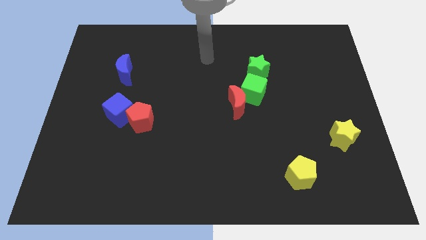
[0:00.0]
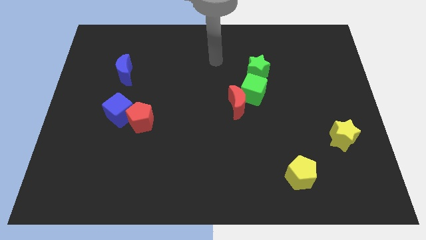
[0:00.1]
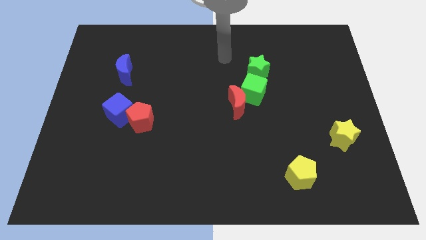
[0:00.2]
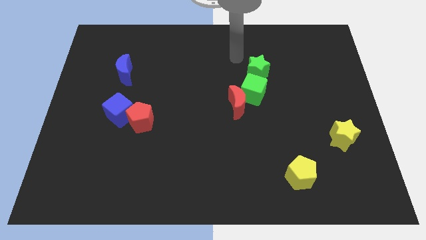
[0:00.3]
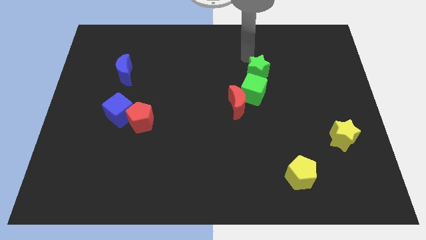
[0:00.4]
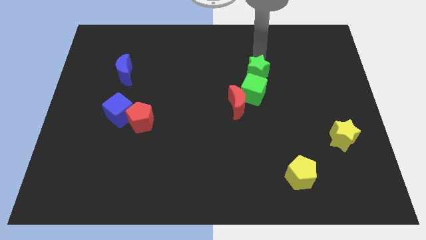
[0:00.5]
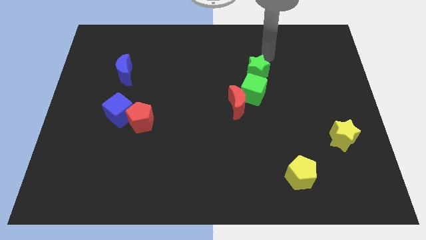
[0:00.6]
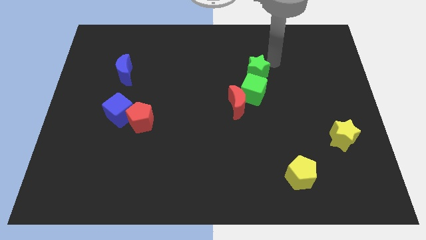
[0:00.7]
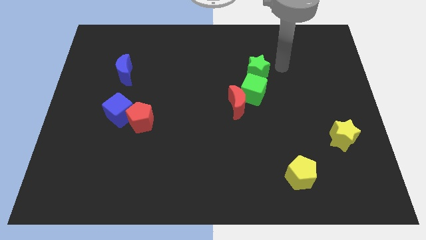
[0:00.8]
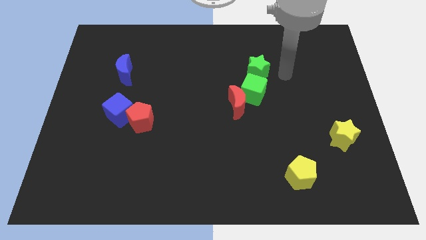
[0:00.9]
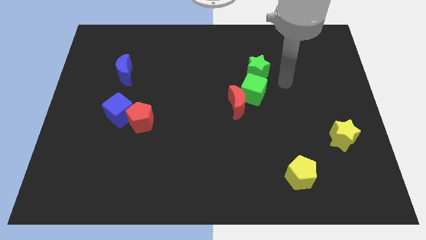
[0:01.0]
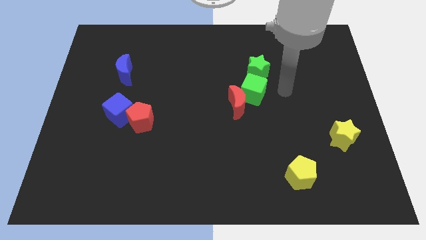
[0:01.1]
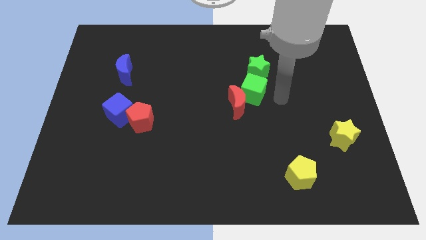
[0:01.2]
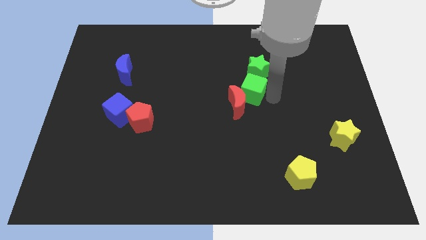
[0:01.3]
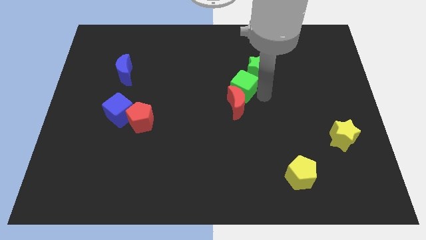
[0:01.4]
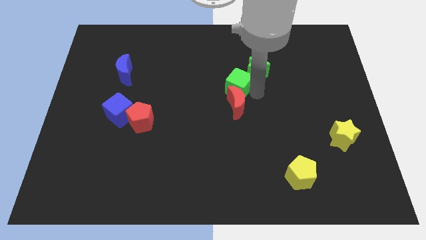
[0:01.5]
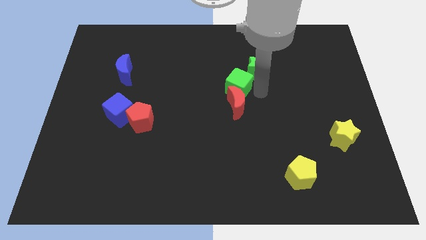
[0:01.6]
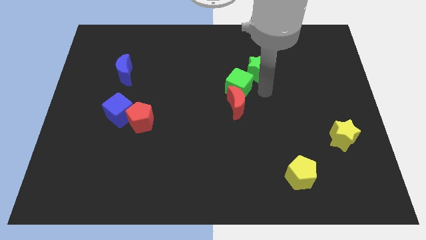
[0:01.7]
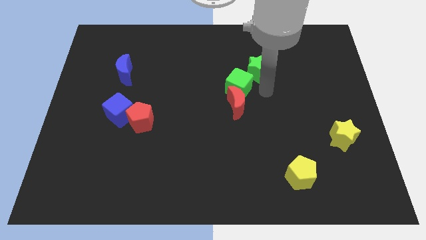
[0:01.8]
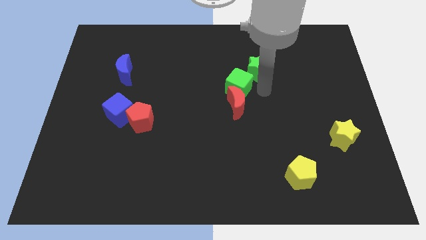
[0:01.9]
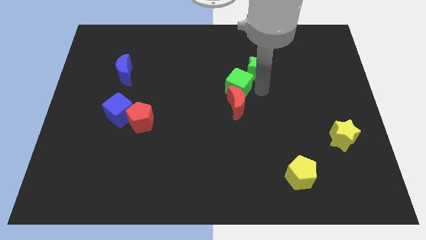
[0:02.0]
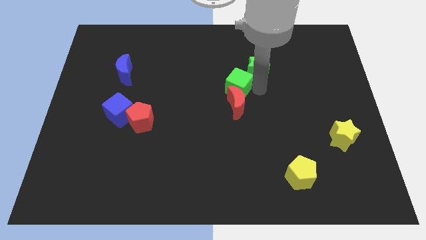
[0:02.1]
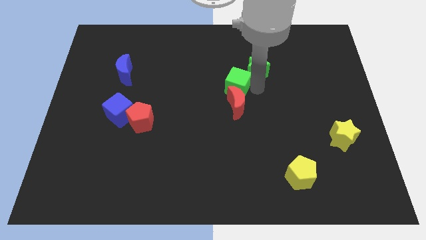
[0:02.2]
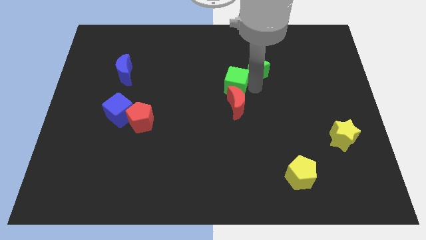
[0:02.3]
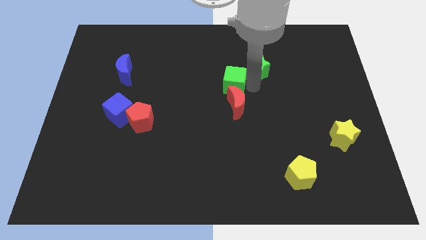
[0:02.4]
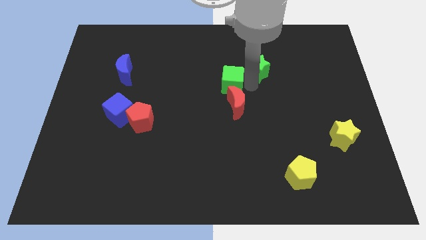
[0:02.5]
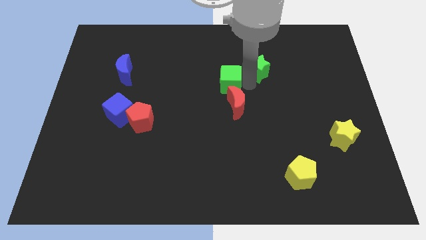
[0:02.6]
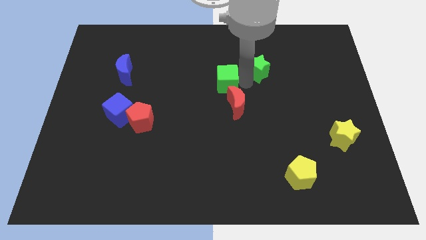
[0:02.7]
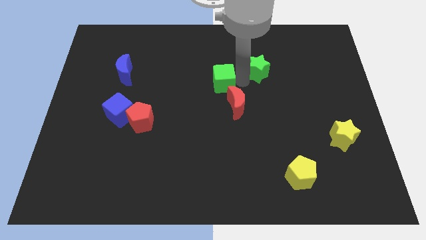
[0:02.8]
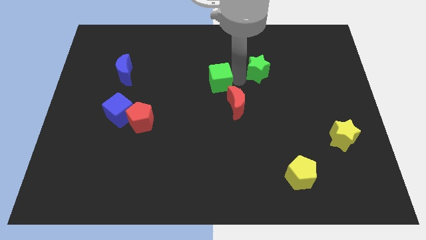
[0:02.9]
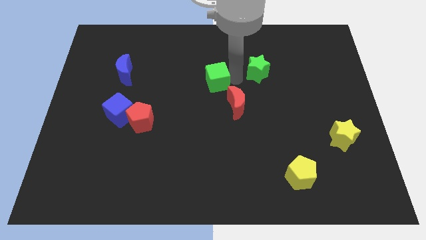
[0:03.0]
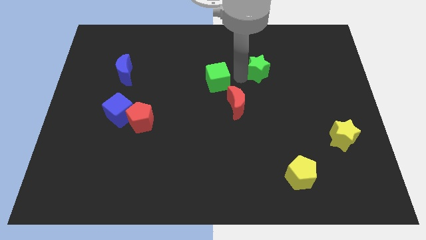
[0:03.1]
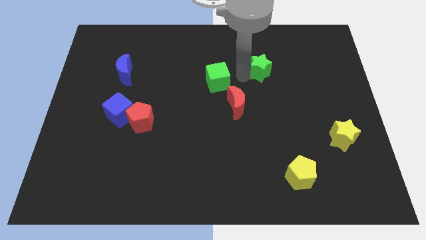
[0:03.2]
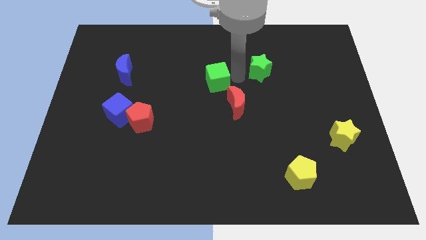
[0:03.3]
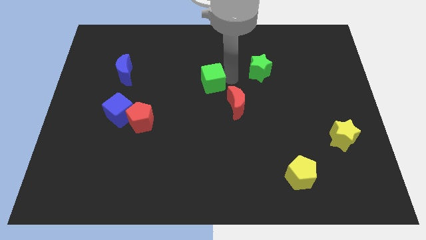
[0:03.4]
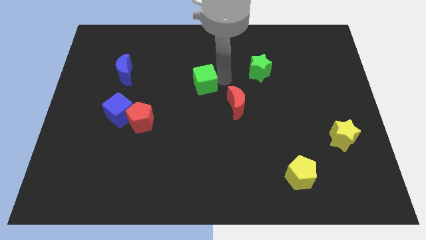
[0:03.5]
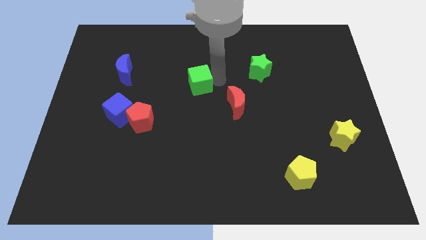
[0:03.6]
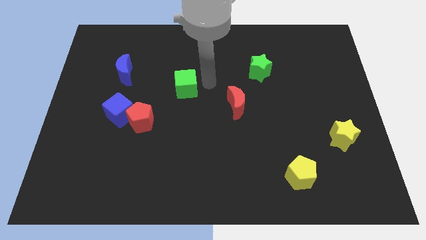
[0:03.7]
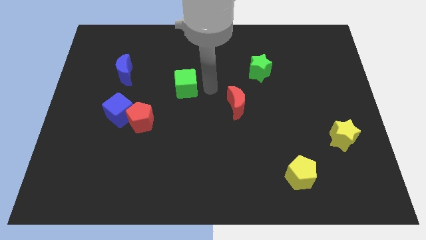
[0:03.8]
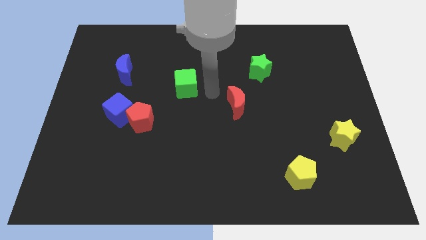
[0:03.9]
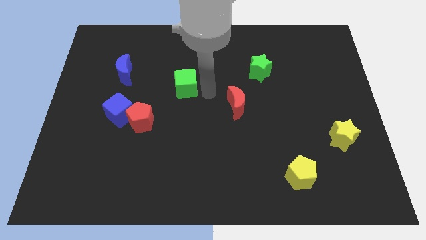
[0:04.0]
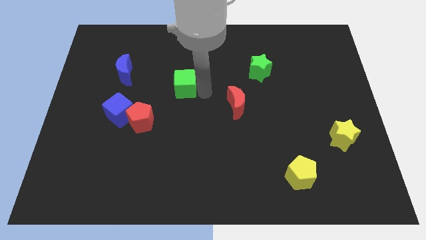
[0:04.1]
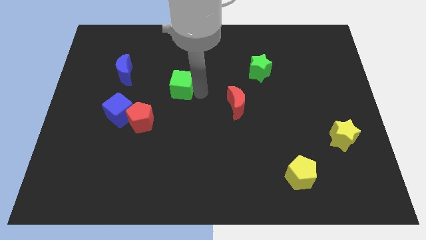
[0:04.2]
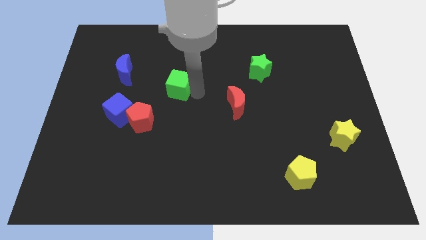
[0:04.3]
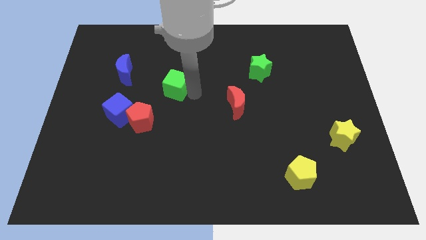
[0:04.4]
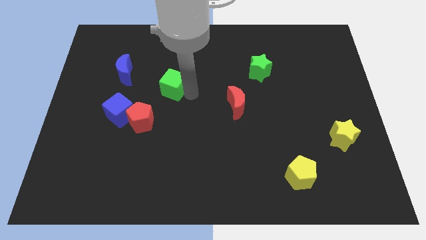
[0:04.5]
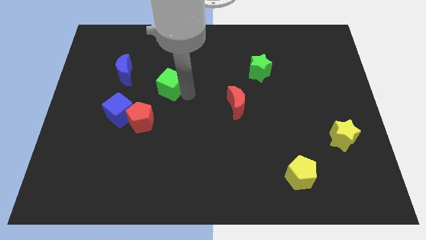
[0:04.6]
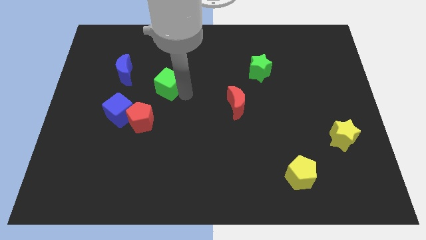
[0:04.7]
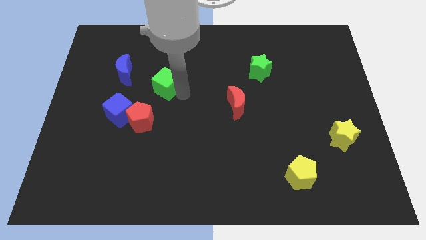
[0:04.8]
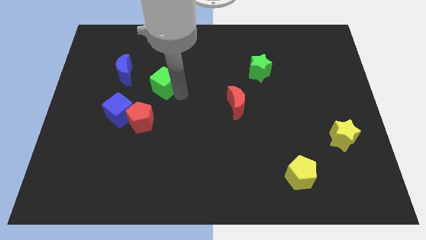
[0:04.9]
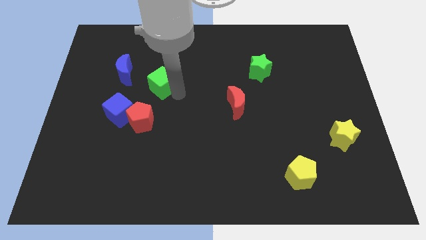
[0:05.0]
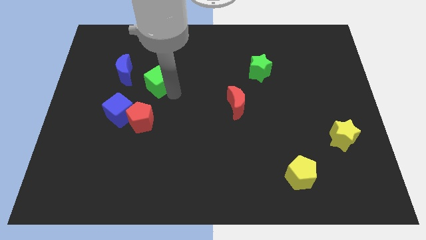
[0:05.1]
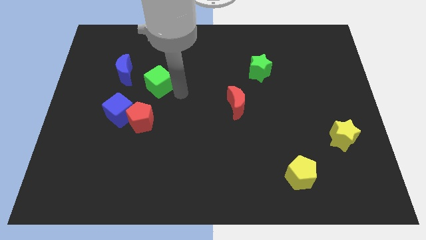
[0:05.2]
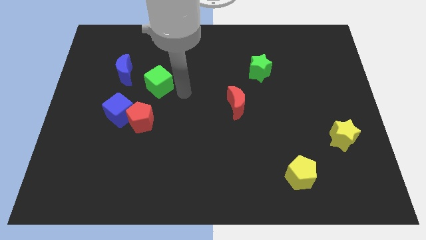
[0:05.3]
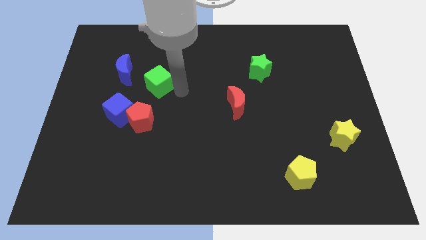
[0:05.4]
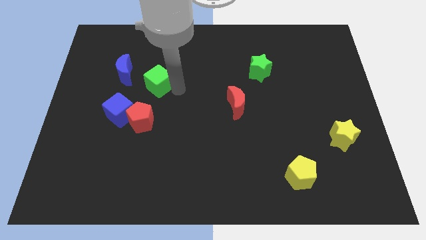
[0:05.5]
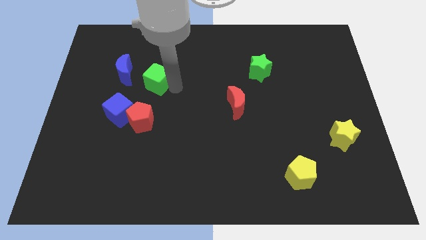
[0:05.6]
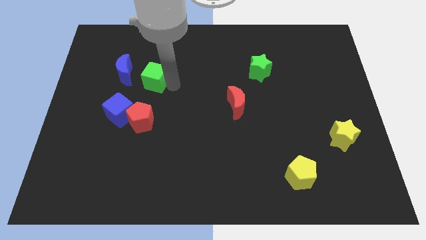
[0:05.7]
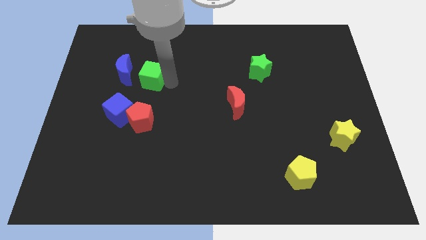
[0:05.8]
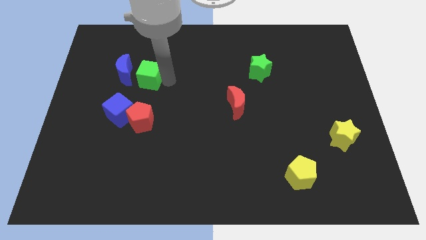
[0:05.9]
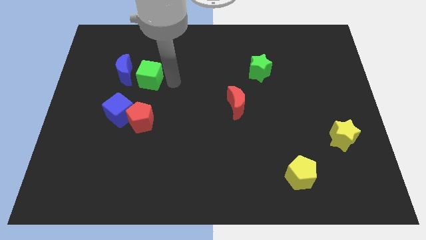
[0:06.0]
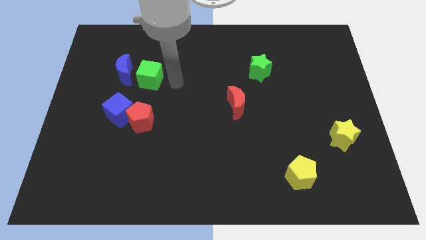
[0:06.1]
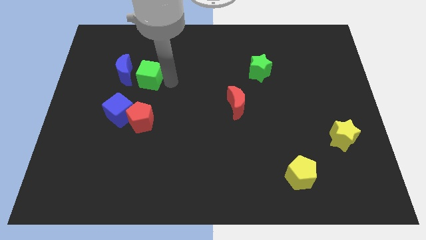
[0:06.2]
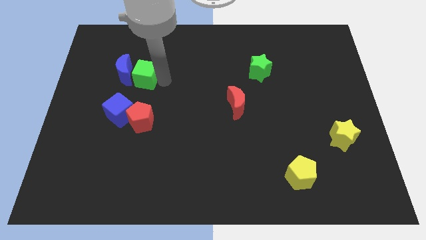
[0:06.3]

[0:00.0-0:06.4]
push the green cube close to the blue moon

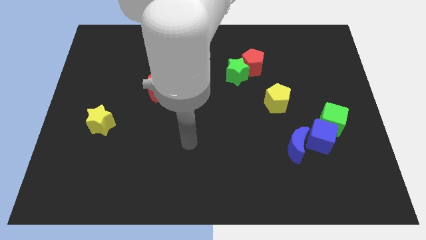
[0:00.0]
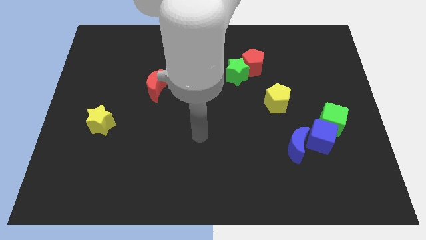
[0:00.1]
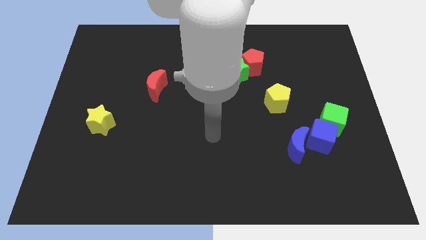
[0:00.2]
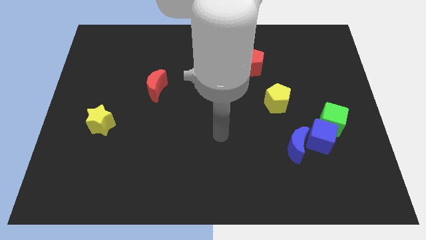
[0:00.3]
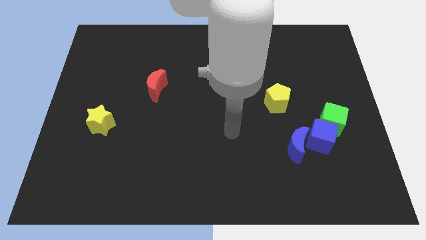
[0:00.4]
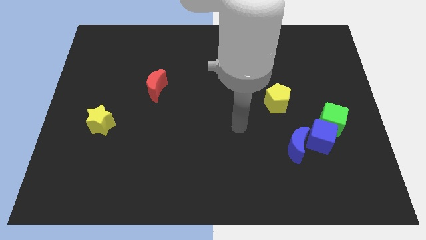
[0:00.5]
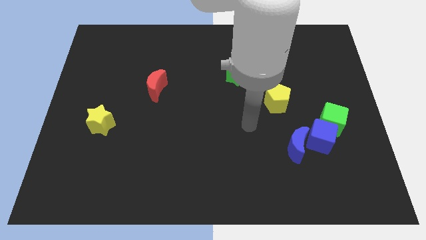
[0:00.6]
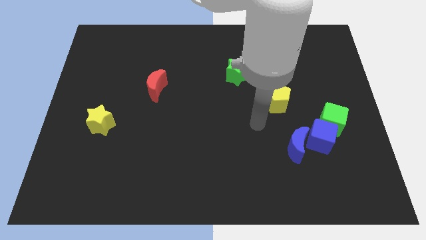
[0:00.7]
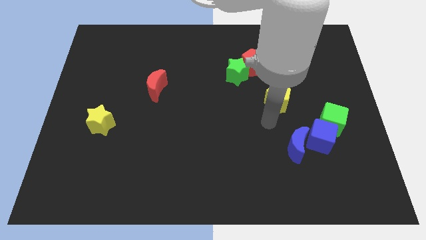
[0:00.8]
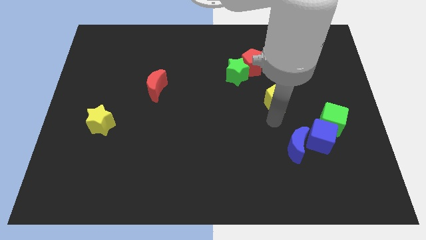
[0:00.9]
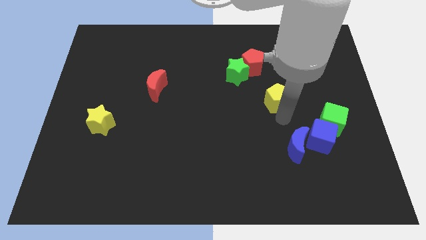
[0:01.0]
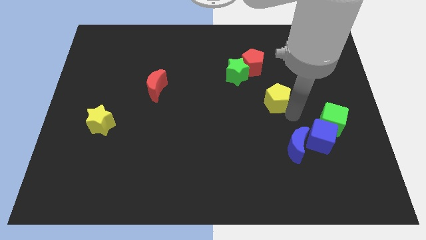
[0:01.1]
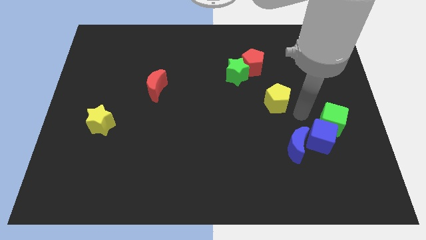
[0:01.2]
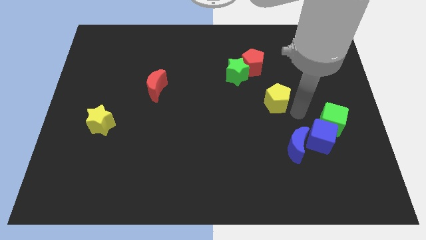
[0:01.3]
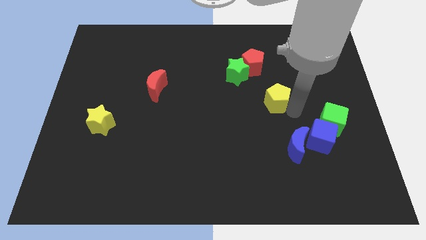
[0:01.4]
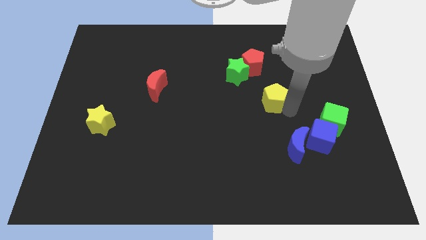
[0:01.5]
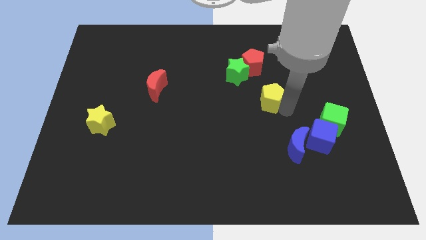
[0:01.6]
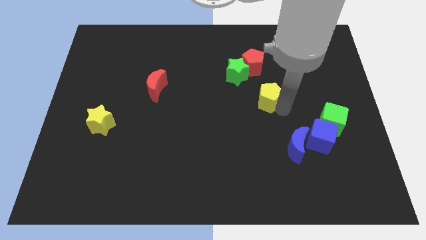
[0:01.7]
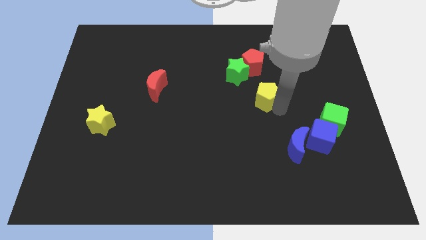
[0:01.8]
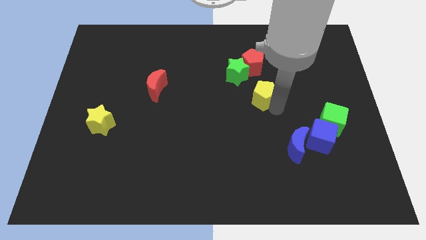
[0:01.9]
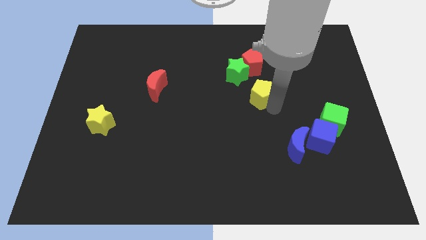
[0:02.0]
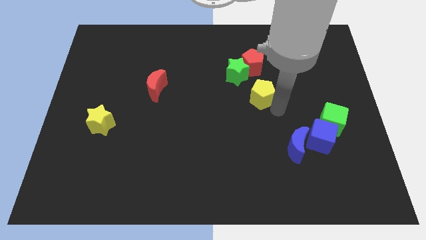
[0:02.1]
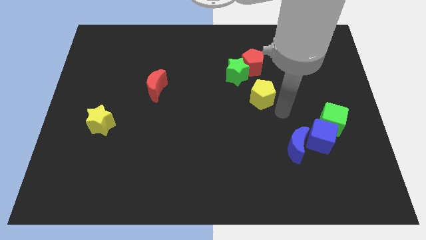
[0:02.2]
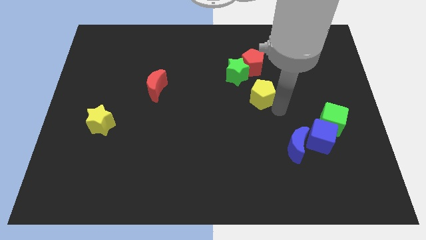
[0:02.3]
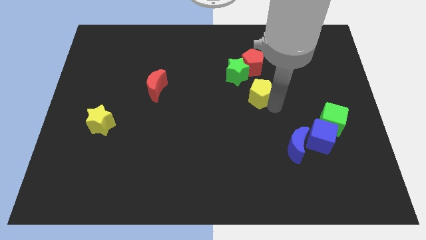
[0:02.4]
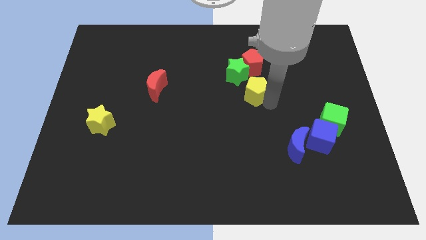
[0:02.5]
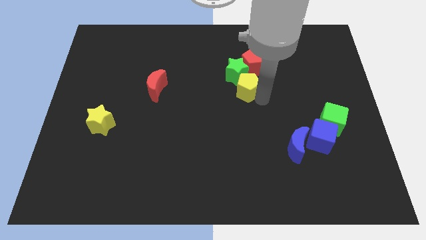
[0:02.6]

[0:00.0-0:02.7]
move the yellow pentagon to the green star
